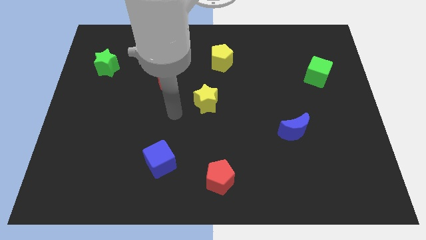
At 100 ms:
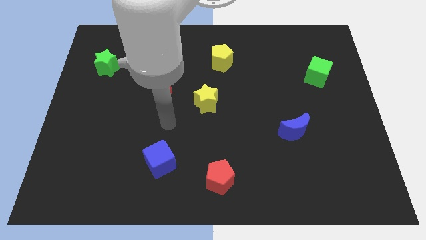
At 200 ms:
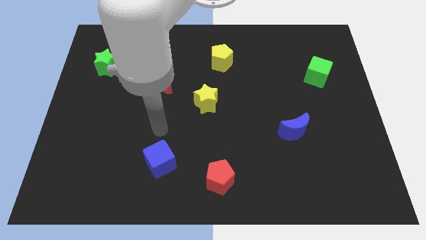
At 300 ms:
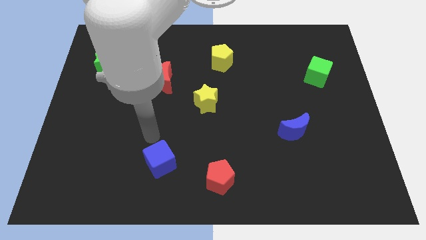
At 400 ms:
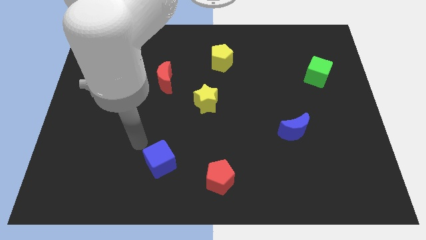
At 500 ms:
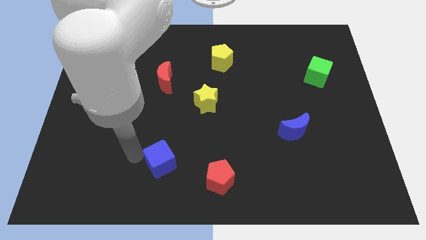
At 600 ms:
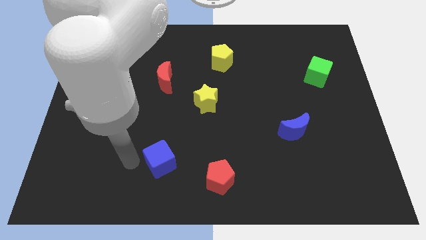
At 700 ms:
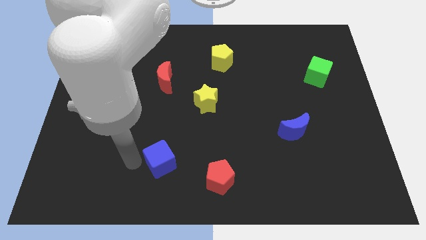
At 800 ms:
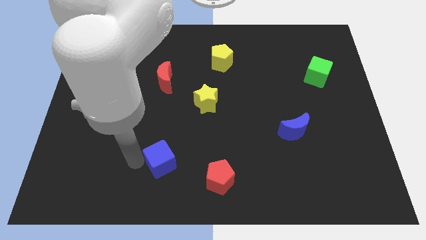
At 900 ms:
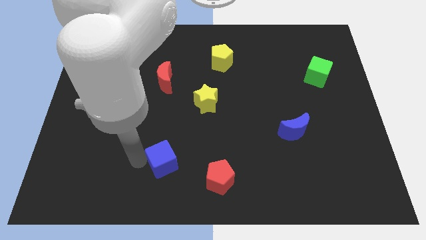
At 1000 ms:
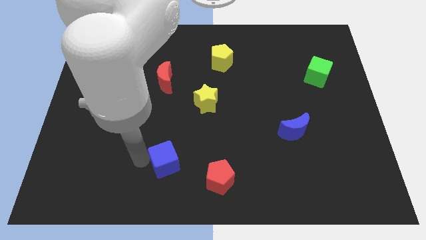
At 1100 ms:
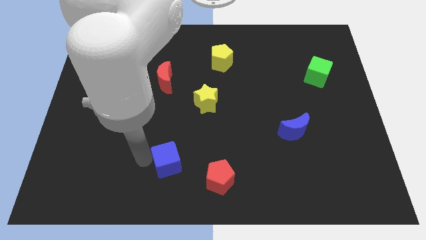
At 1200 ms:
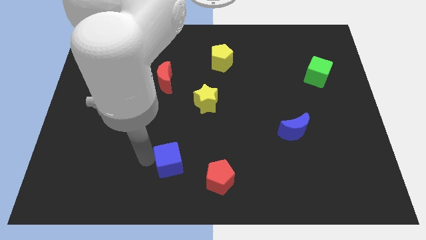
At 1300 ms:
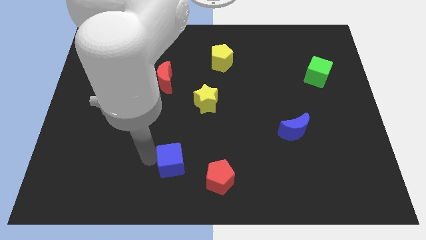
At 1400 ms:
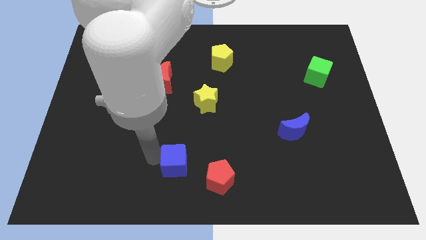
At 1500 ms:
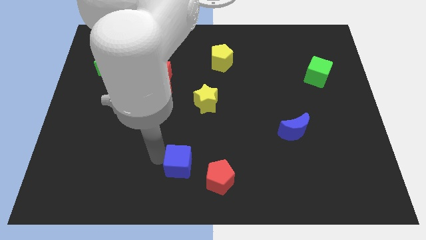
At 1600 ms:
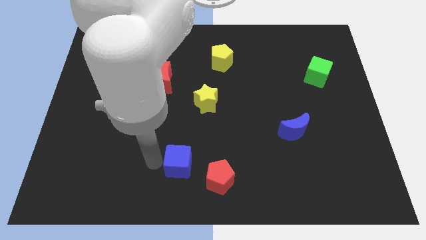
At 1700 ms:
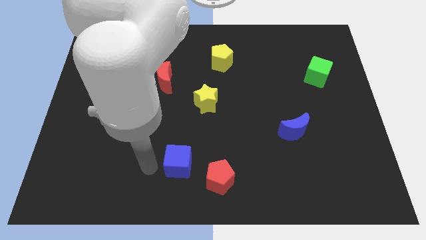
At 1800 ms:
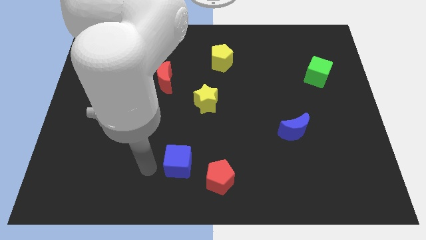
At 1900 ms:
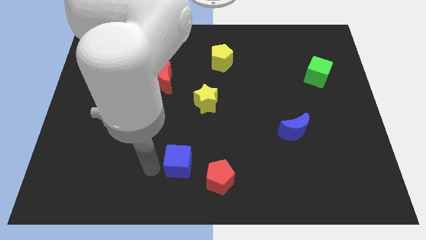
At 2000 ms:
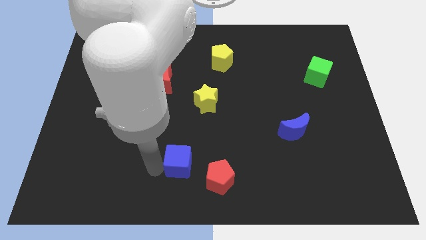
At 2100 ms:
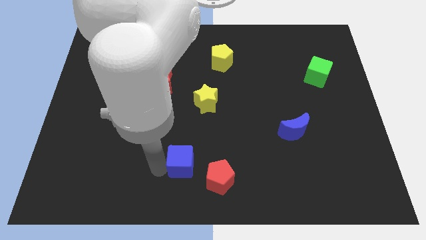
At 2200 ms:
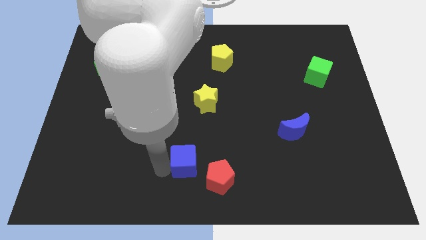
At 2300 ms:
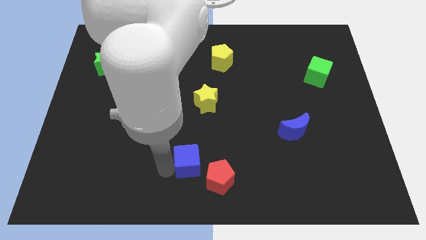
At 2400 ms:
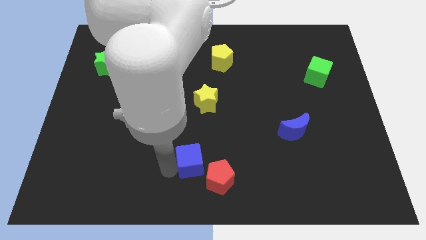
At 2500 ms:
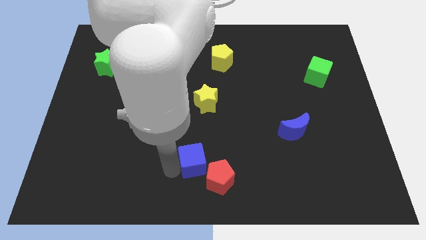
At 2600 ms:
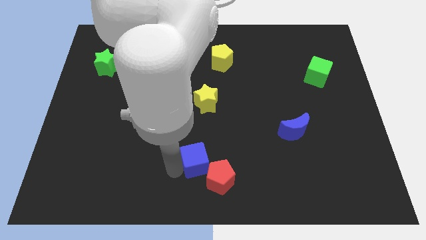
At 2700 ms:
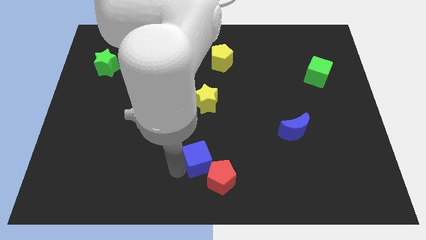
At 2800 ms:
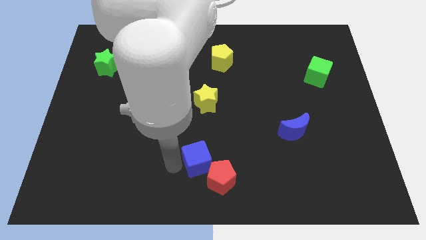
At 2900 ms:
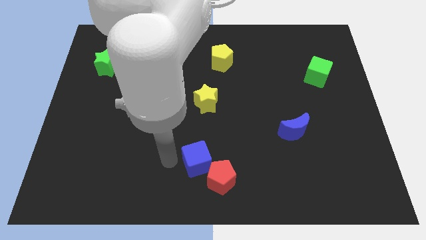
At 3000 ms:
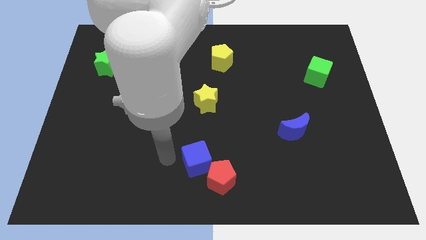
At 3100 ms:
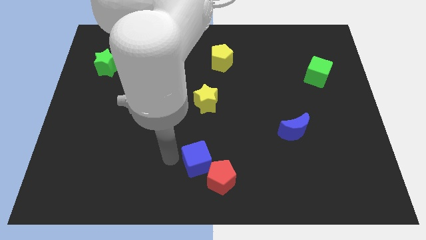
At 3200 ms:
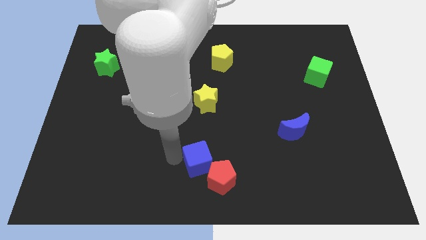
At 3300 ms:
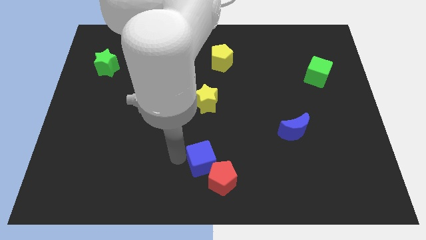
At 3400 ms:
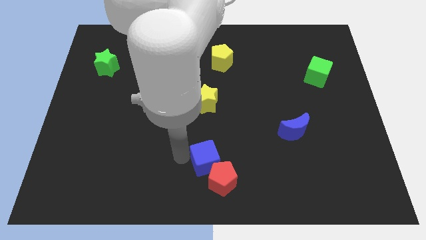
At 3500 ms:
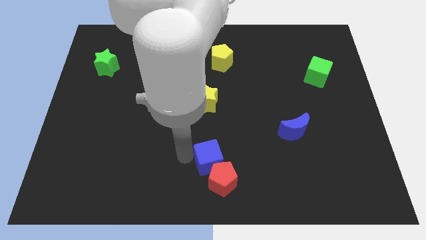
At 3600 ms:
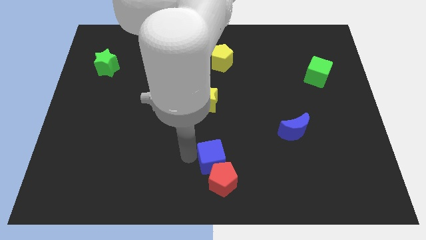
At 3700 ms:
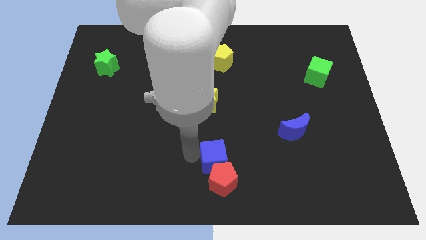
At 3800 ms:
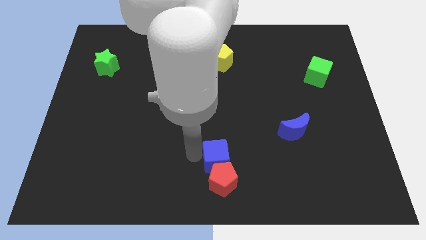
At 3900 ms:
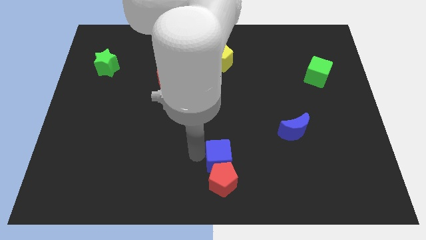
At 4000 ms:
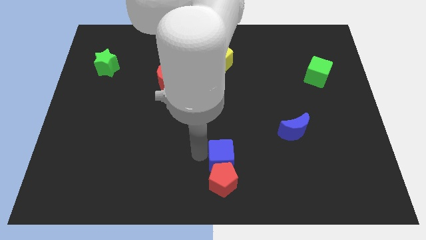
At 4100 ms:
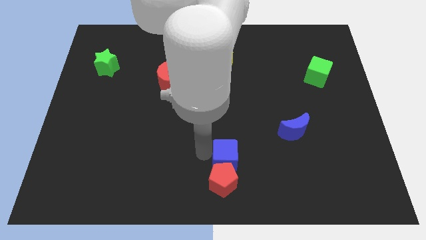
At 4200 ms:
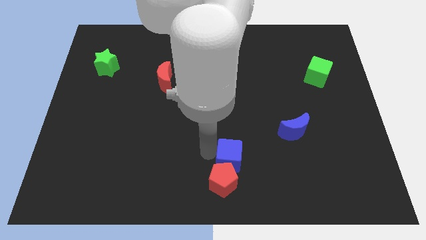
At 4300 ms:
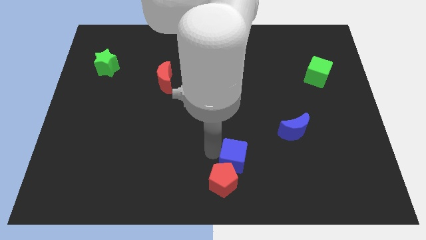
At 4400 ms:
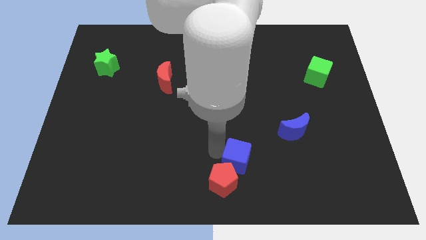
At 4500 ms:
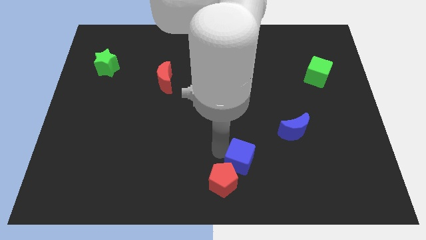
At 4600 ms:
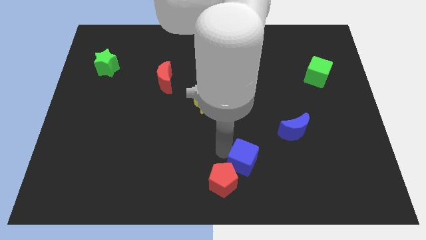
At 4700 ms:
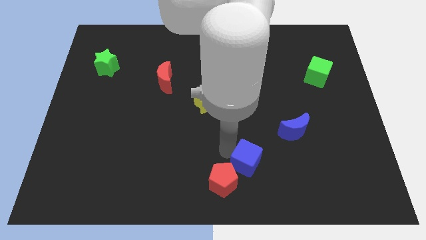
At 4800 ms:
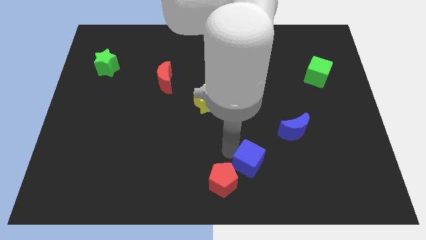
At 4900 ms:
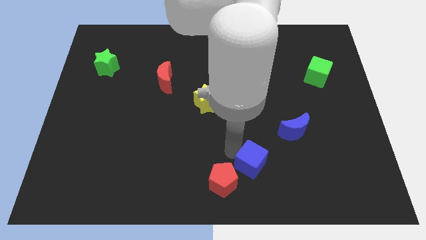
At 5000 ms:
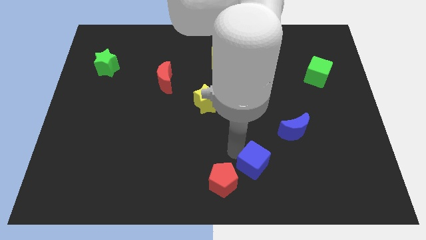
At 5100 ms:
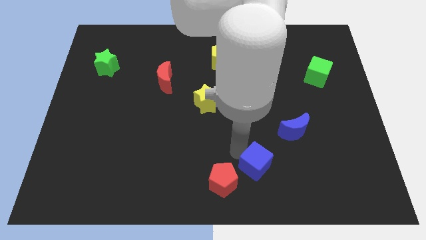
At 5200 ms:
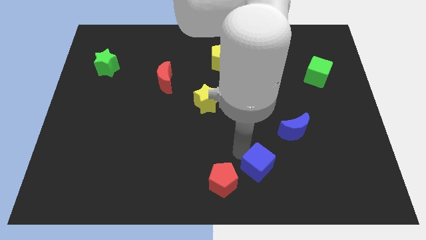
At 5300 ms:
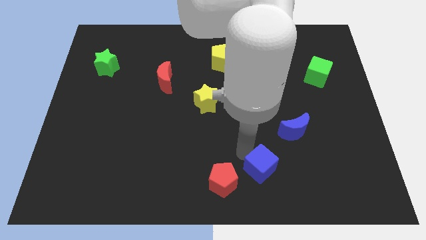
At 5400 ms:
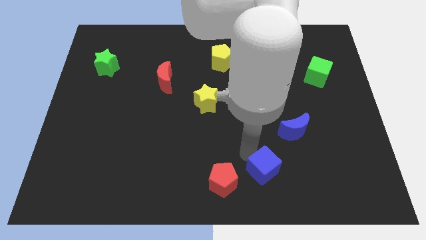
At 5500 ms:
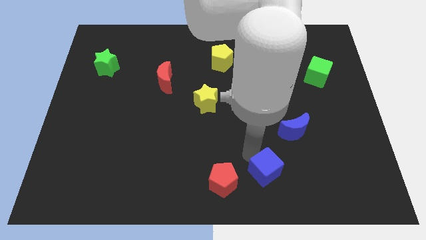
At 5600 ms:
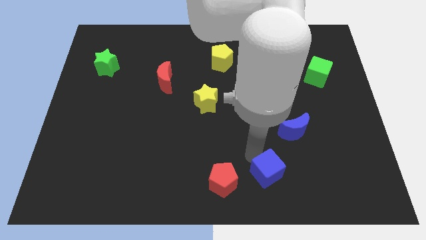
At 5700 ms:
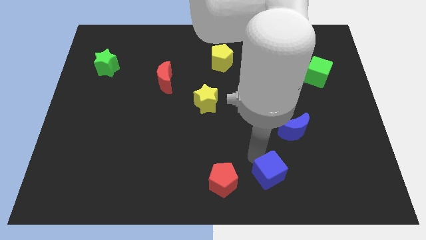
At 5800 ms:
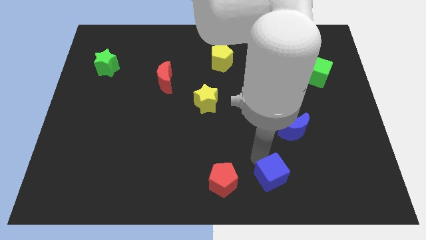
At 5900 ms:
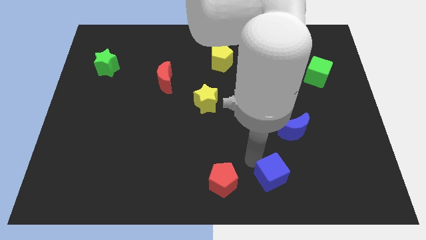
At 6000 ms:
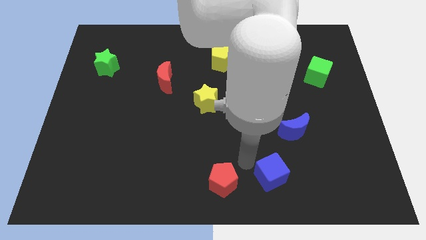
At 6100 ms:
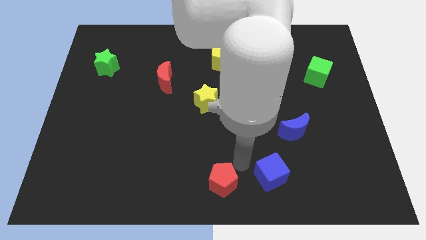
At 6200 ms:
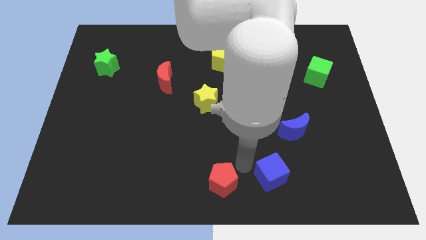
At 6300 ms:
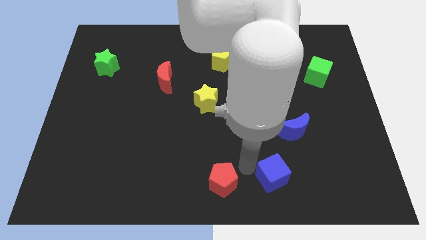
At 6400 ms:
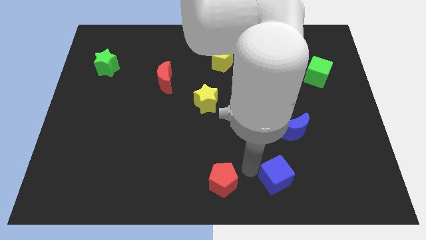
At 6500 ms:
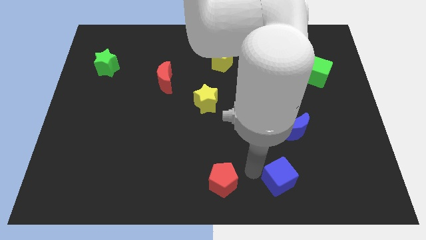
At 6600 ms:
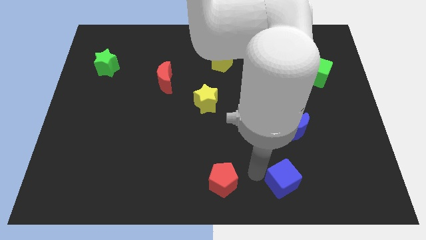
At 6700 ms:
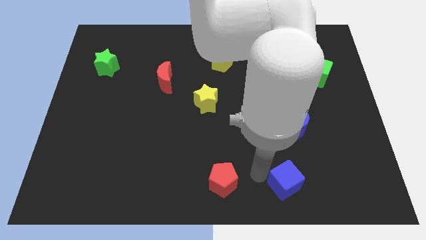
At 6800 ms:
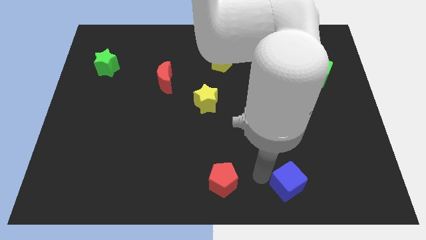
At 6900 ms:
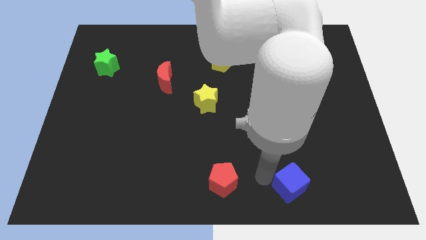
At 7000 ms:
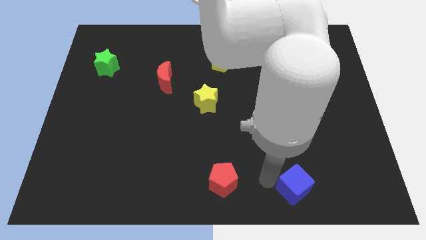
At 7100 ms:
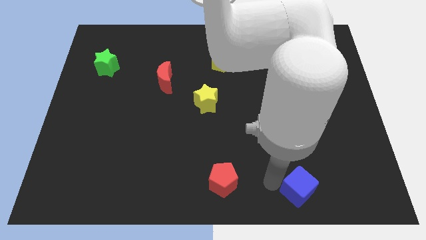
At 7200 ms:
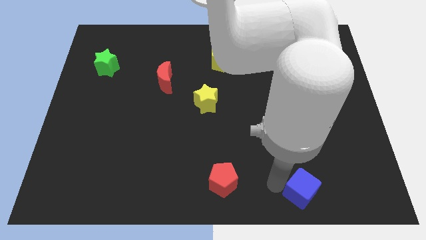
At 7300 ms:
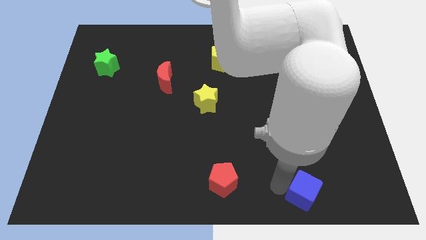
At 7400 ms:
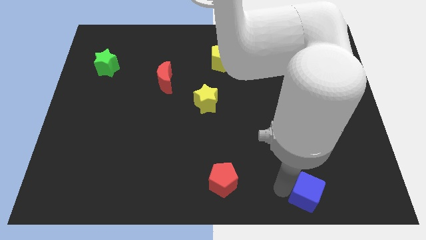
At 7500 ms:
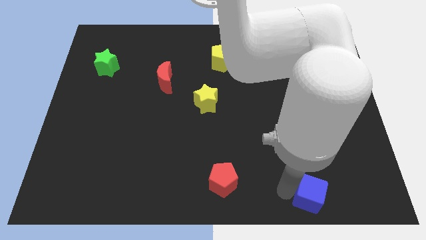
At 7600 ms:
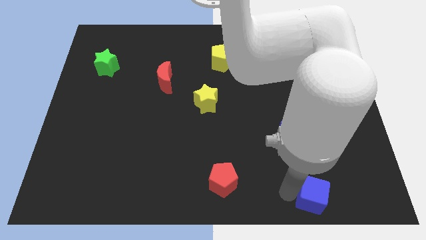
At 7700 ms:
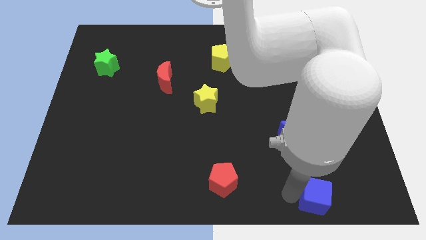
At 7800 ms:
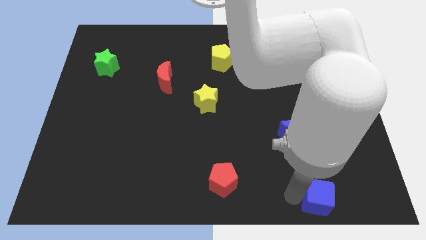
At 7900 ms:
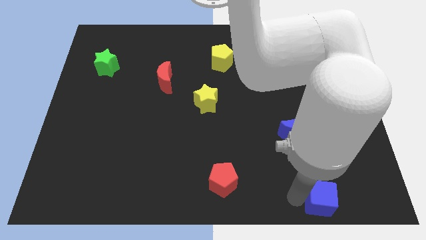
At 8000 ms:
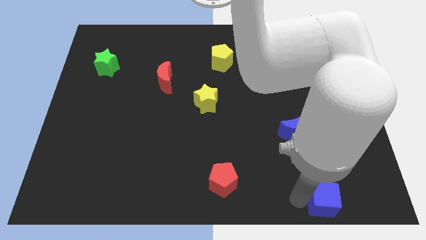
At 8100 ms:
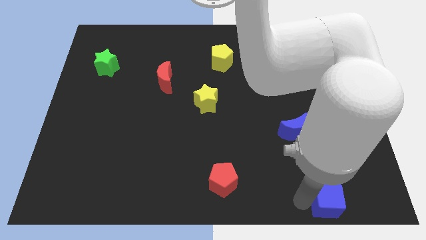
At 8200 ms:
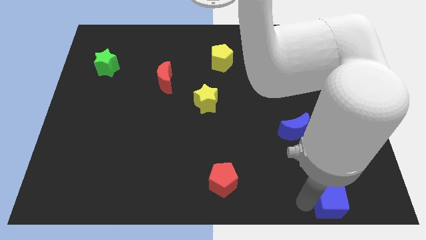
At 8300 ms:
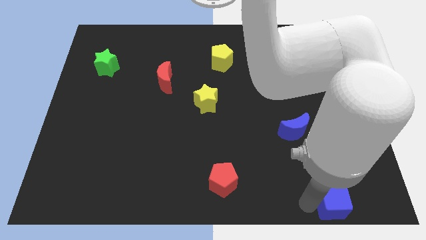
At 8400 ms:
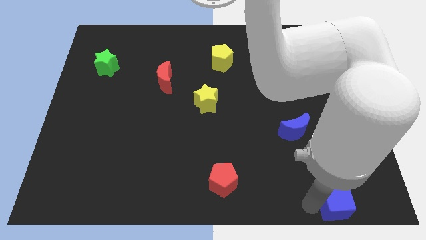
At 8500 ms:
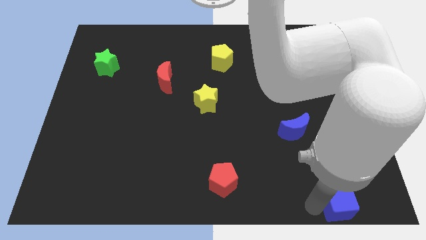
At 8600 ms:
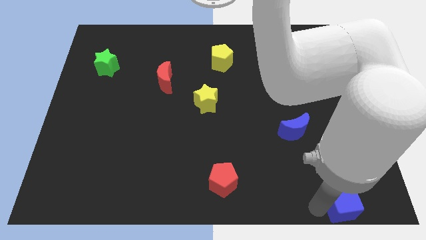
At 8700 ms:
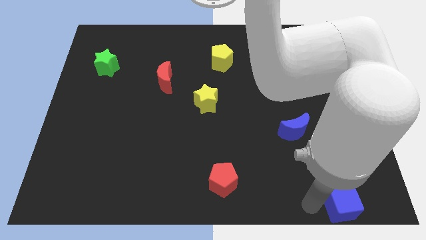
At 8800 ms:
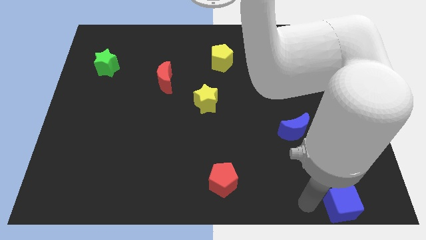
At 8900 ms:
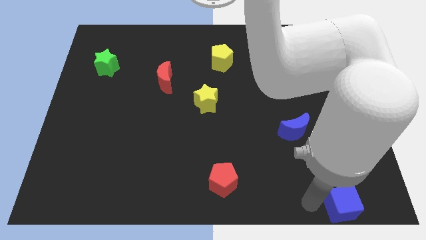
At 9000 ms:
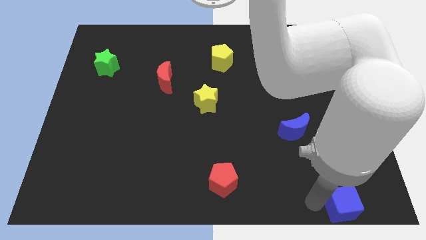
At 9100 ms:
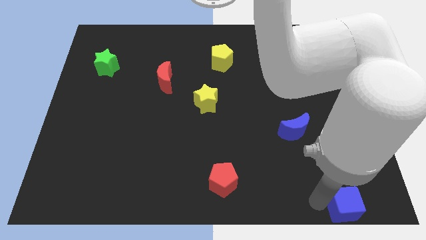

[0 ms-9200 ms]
push the blue cube to the bottom right corner
